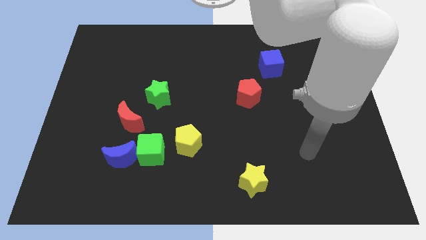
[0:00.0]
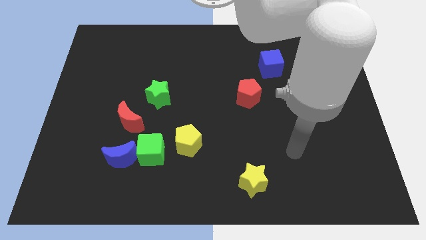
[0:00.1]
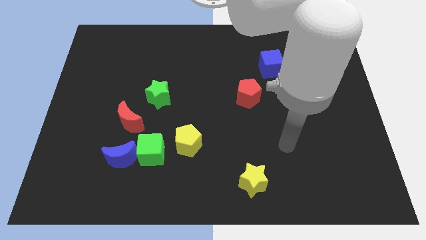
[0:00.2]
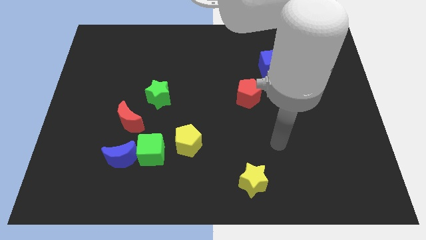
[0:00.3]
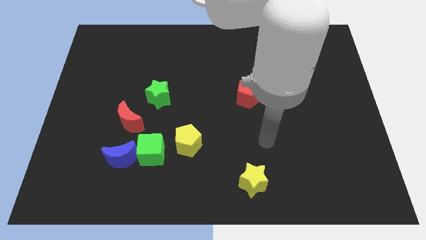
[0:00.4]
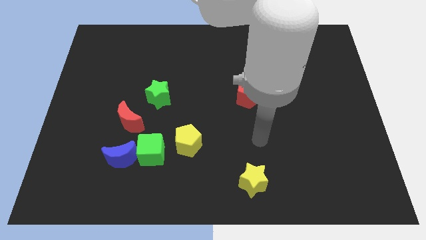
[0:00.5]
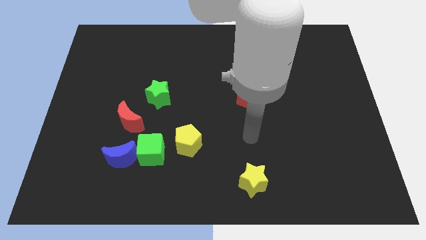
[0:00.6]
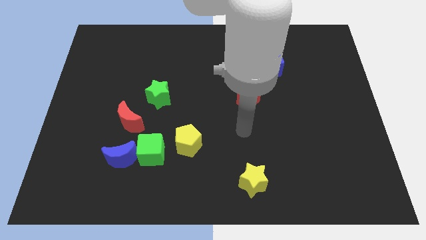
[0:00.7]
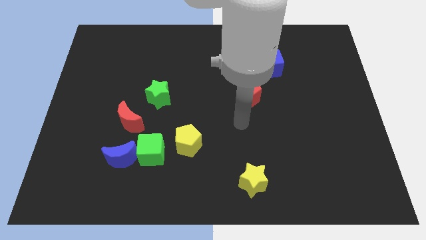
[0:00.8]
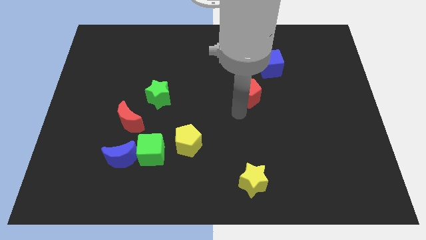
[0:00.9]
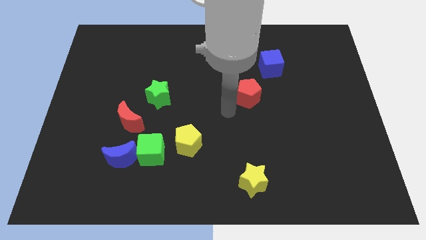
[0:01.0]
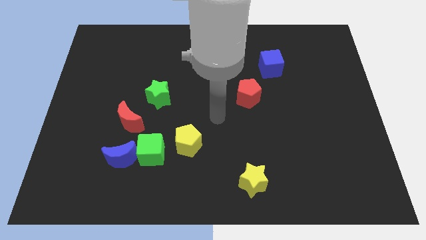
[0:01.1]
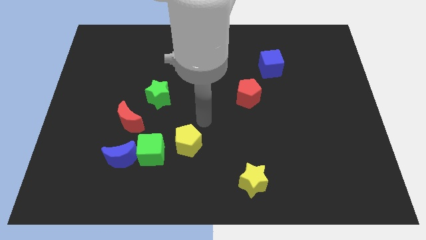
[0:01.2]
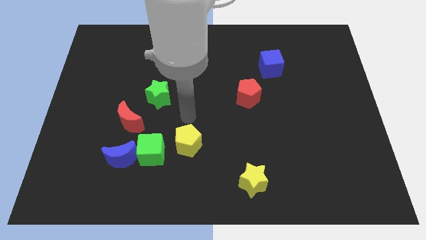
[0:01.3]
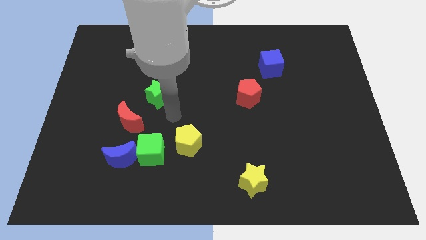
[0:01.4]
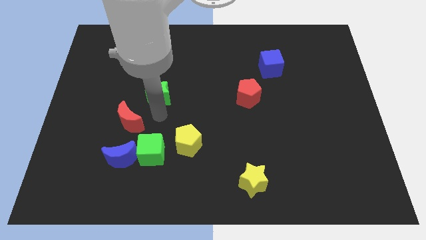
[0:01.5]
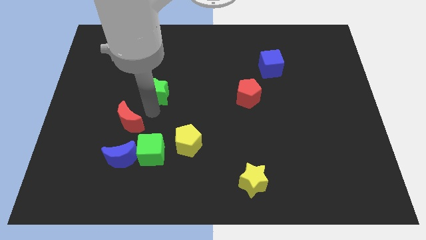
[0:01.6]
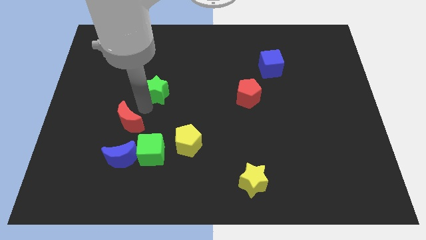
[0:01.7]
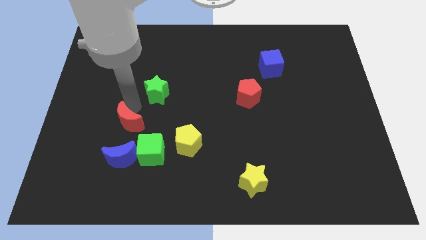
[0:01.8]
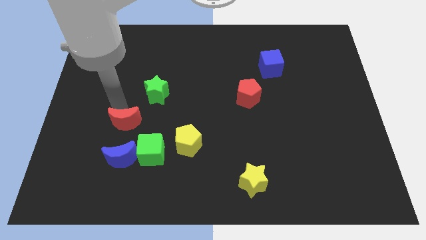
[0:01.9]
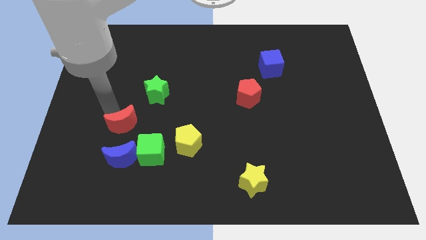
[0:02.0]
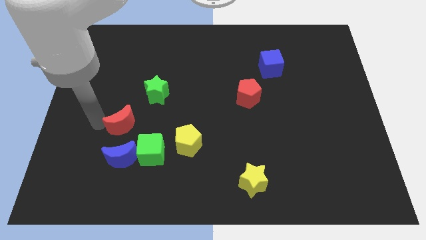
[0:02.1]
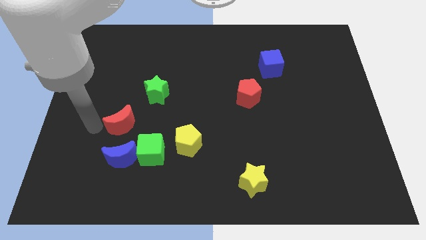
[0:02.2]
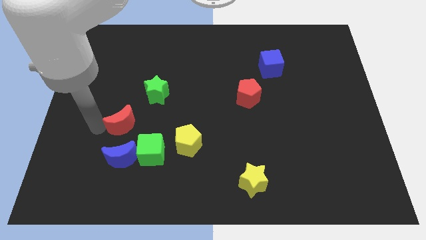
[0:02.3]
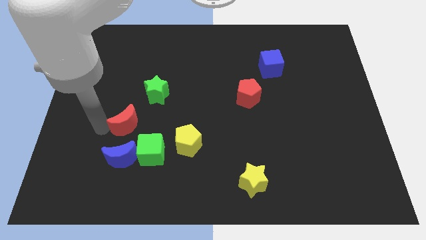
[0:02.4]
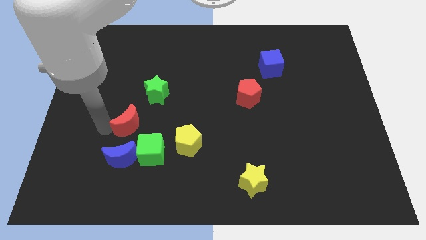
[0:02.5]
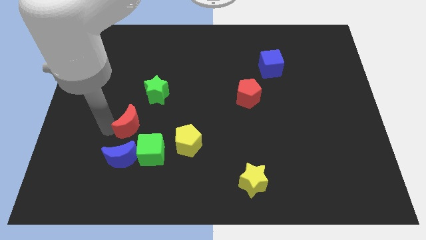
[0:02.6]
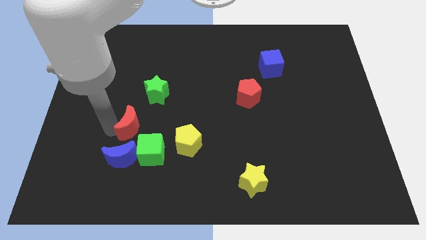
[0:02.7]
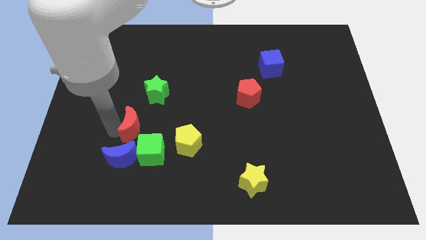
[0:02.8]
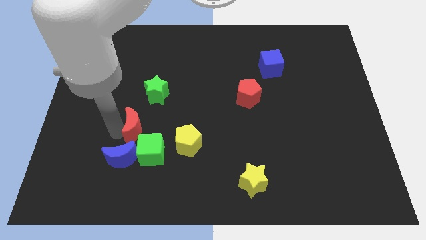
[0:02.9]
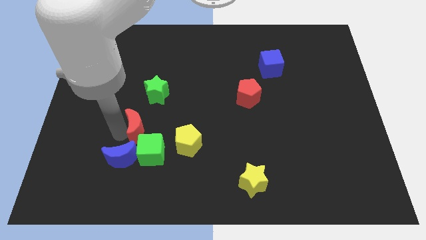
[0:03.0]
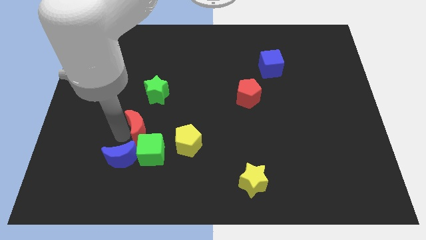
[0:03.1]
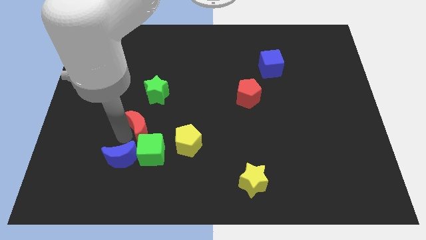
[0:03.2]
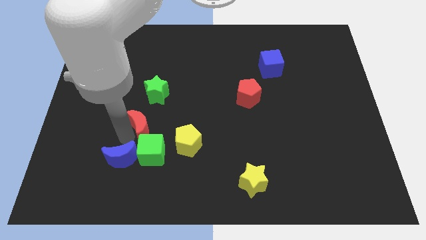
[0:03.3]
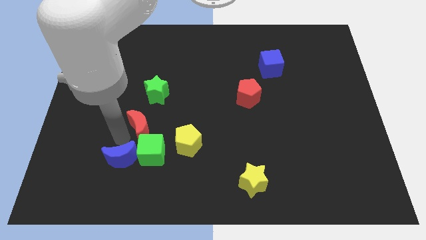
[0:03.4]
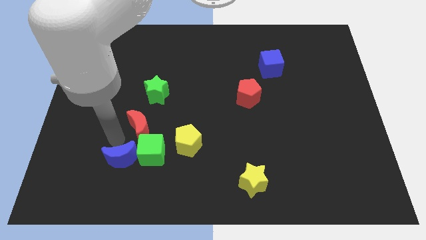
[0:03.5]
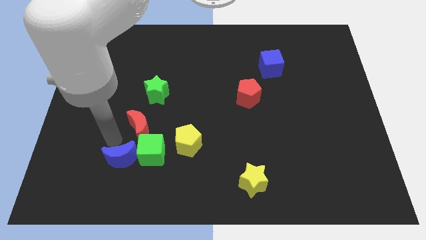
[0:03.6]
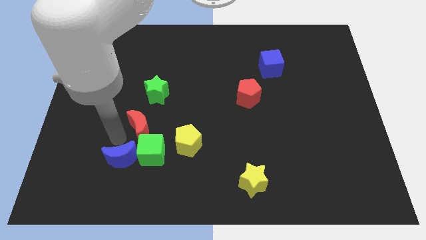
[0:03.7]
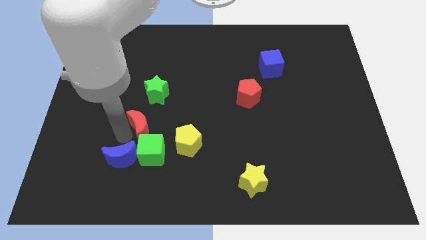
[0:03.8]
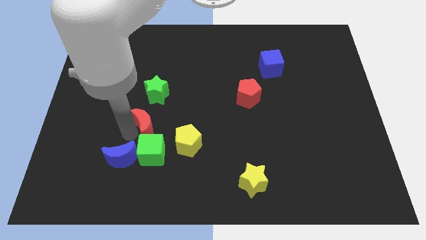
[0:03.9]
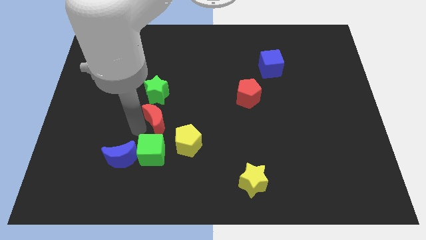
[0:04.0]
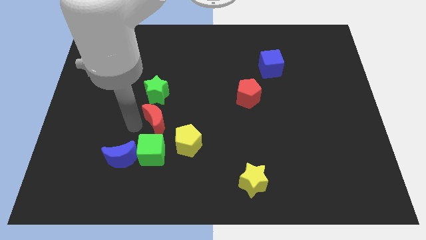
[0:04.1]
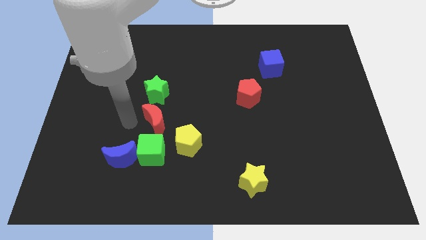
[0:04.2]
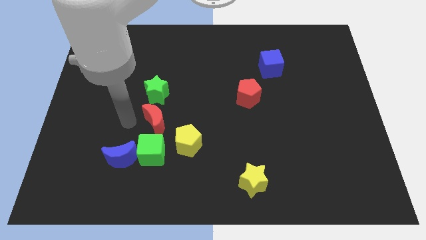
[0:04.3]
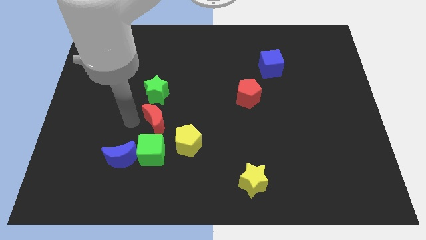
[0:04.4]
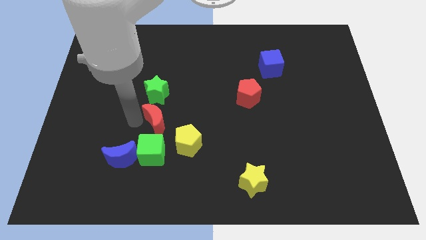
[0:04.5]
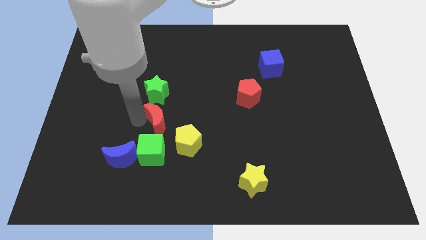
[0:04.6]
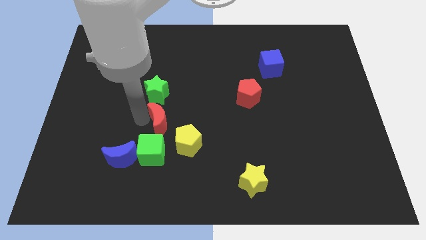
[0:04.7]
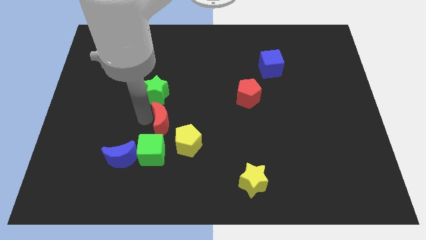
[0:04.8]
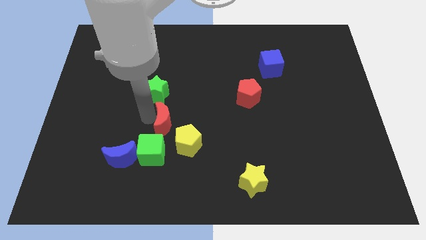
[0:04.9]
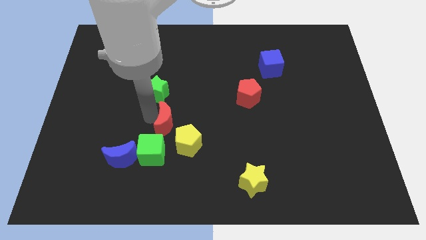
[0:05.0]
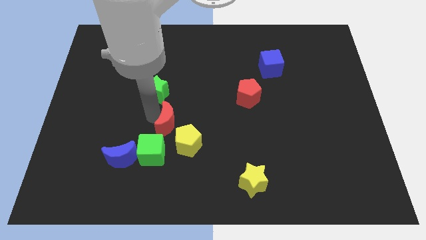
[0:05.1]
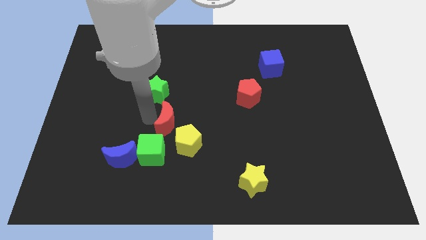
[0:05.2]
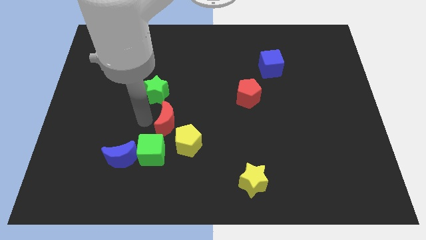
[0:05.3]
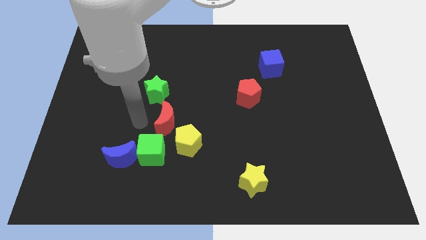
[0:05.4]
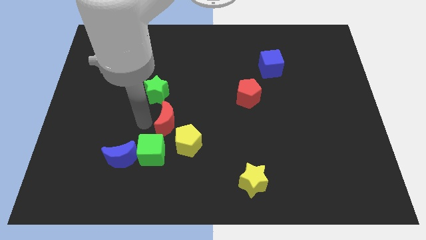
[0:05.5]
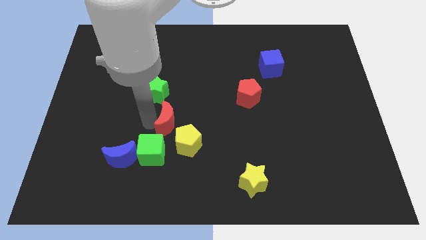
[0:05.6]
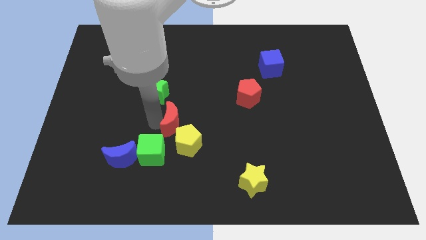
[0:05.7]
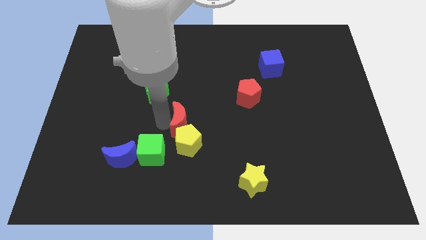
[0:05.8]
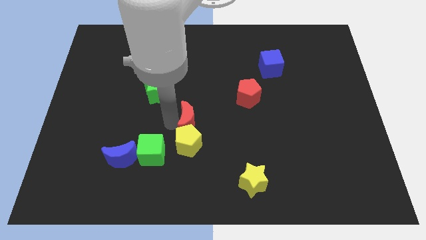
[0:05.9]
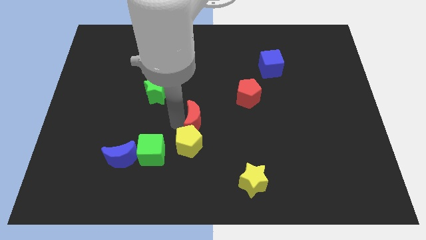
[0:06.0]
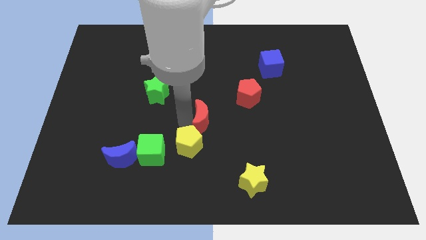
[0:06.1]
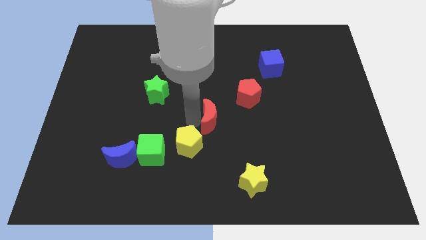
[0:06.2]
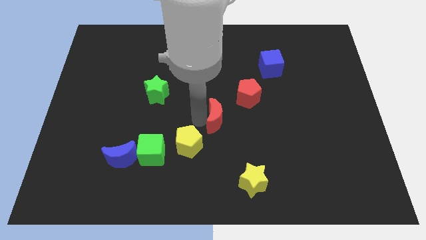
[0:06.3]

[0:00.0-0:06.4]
push the red moon right

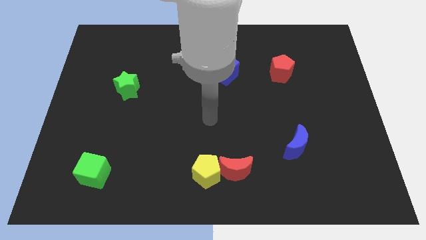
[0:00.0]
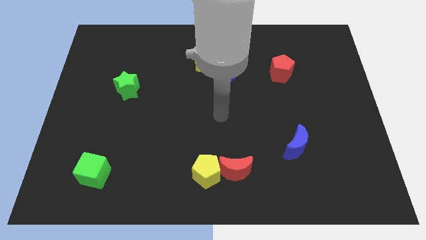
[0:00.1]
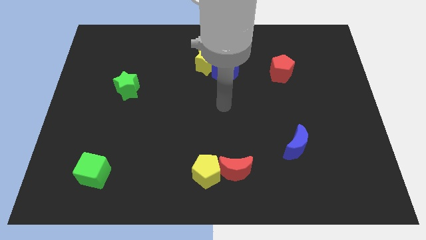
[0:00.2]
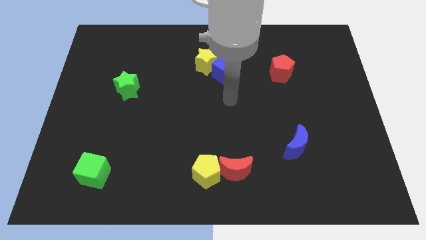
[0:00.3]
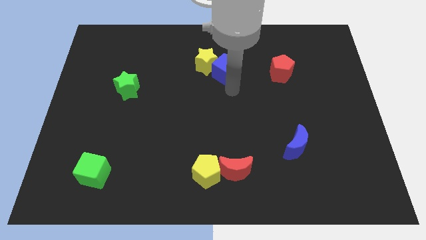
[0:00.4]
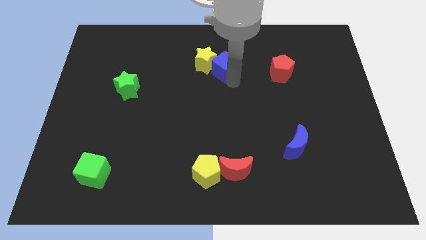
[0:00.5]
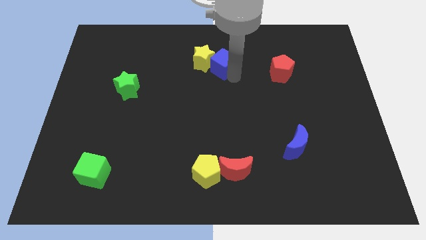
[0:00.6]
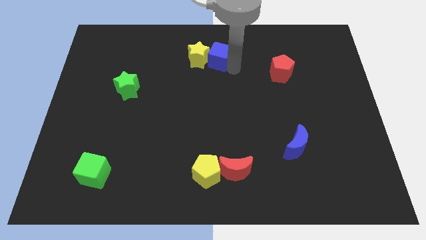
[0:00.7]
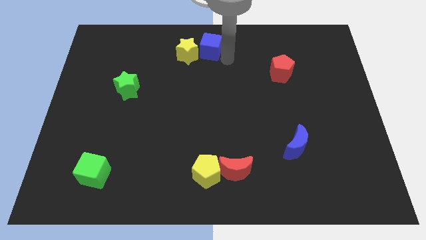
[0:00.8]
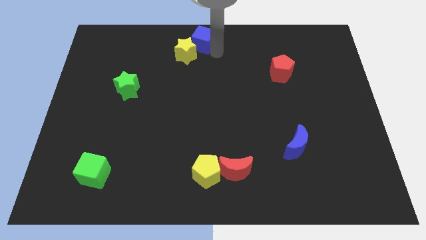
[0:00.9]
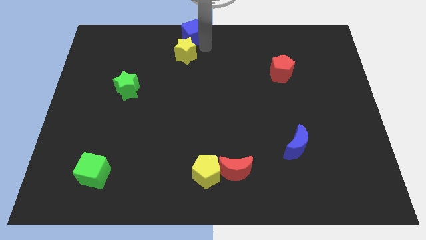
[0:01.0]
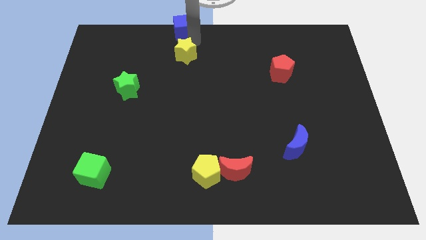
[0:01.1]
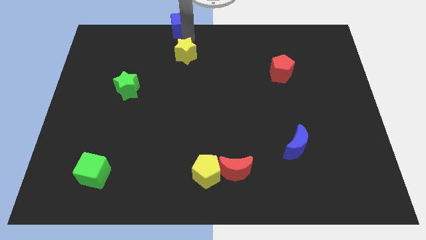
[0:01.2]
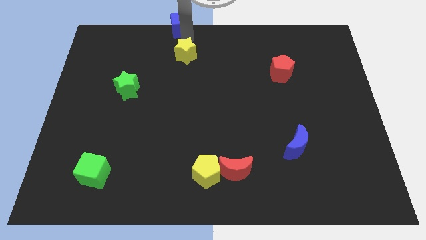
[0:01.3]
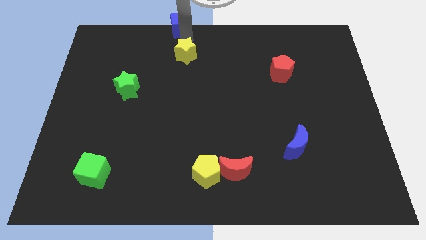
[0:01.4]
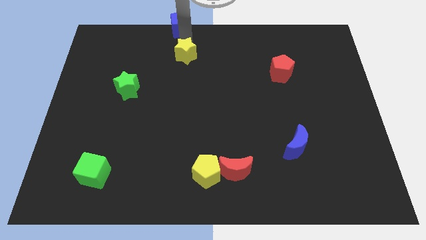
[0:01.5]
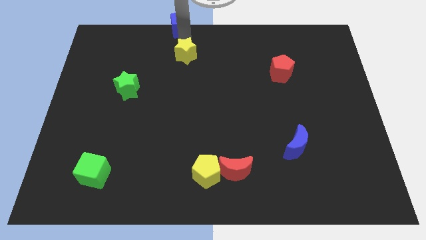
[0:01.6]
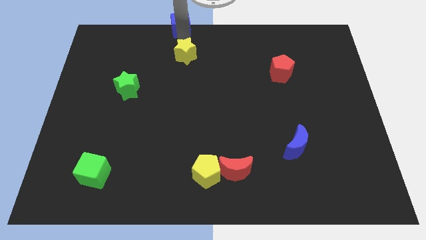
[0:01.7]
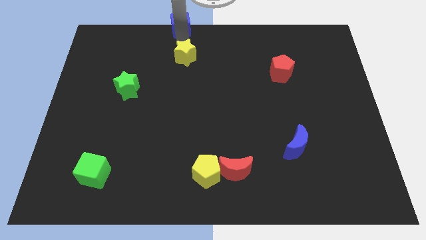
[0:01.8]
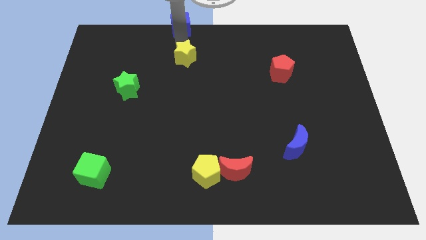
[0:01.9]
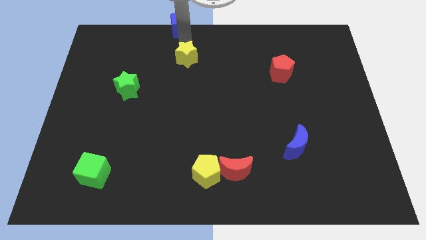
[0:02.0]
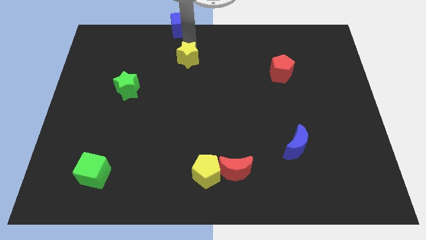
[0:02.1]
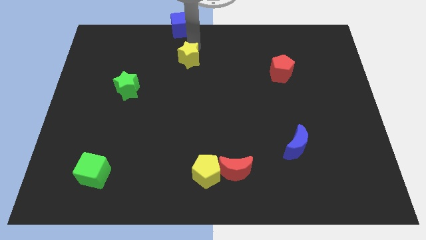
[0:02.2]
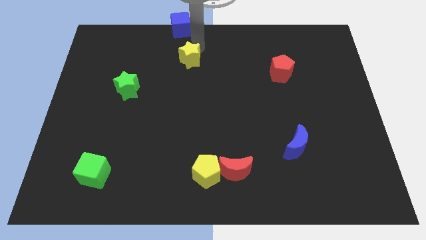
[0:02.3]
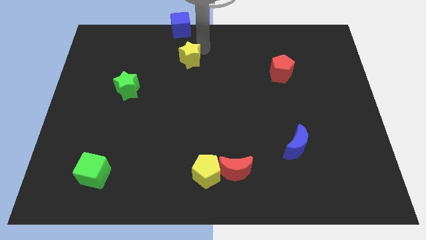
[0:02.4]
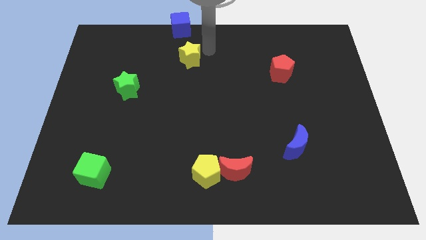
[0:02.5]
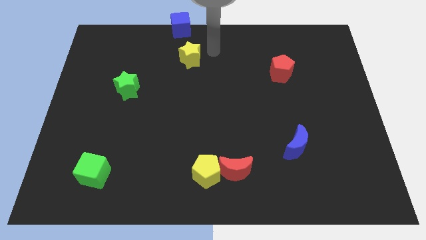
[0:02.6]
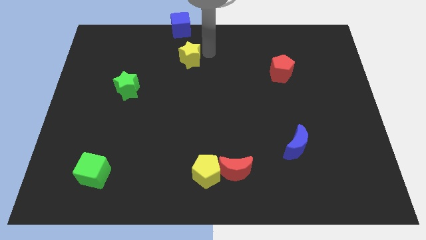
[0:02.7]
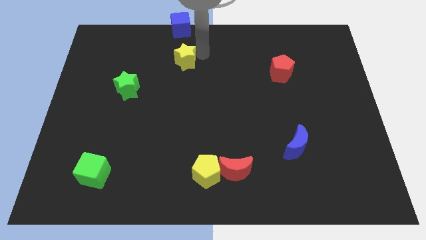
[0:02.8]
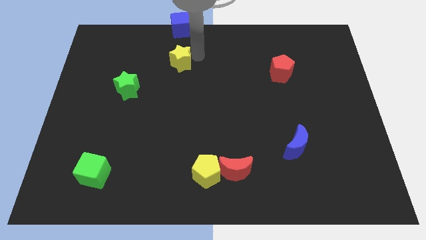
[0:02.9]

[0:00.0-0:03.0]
slightly slide the yellow star to the left
